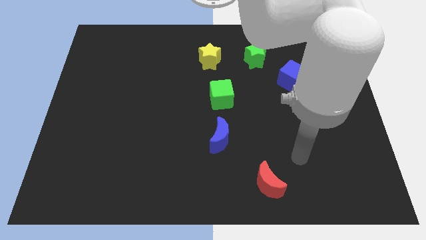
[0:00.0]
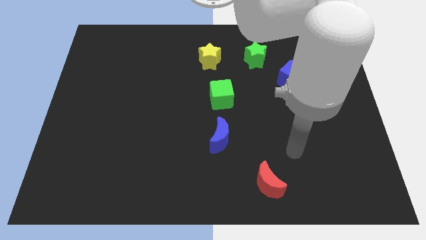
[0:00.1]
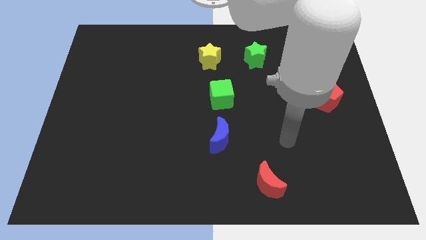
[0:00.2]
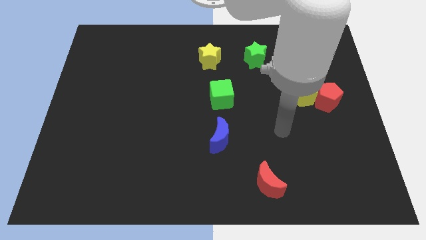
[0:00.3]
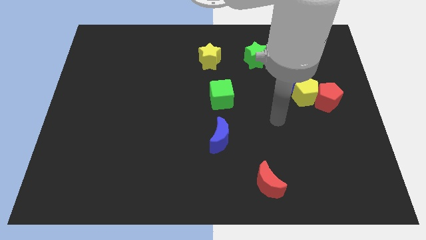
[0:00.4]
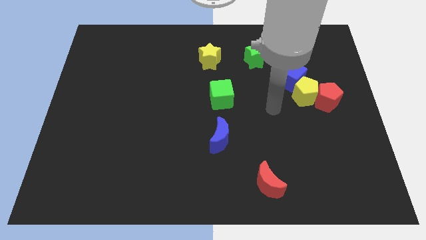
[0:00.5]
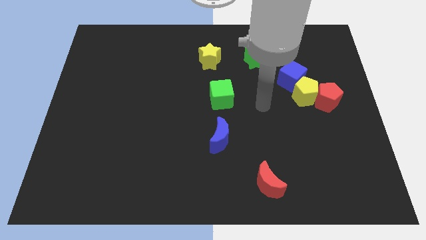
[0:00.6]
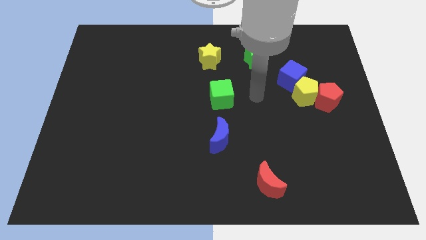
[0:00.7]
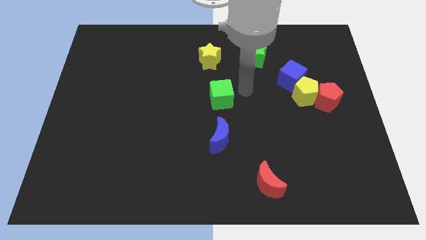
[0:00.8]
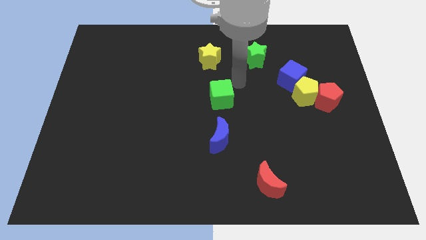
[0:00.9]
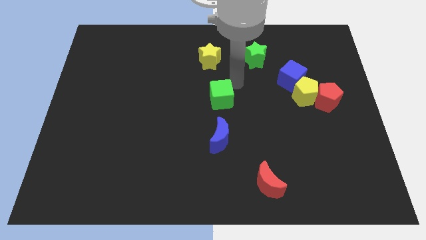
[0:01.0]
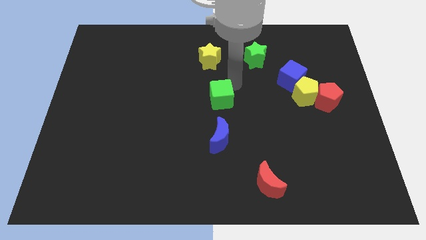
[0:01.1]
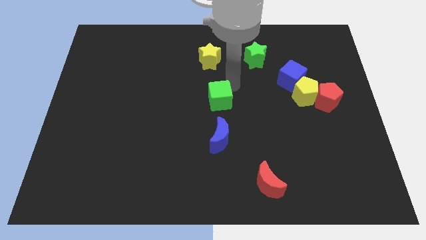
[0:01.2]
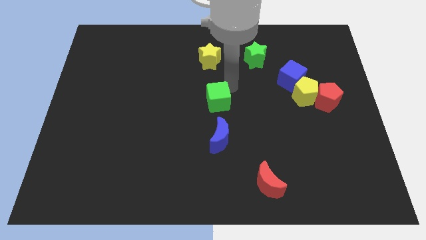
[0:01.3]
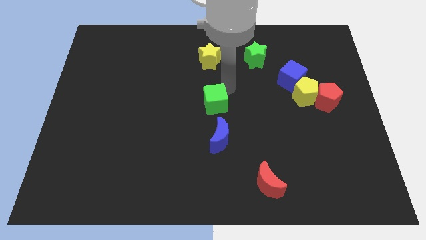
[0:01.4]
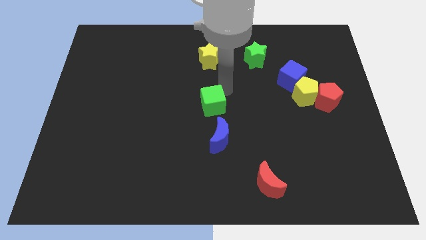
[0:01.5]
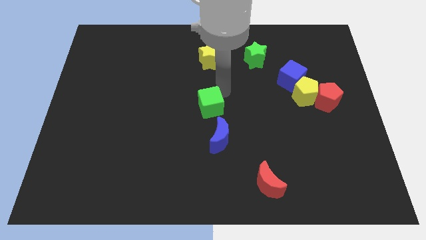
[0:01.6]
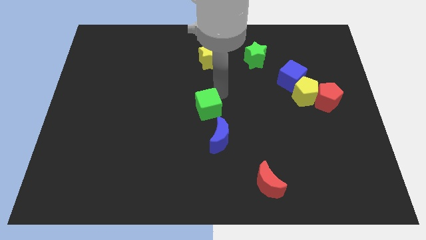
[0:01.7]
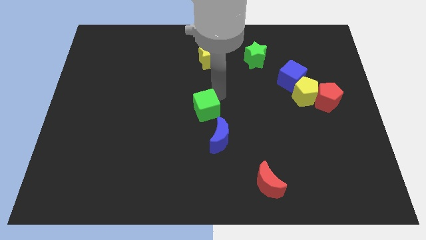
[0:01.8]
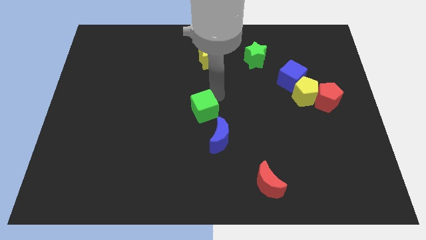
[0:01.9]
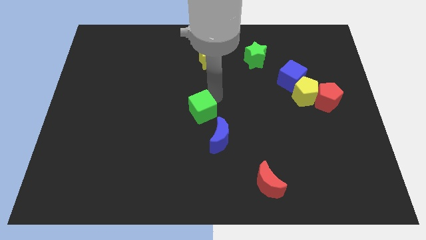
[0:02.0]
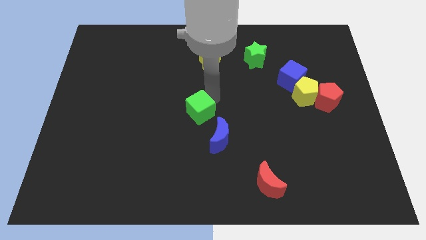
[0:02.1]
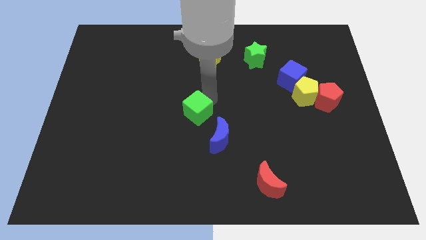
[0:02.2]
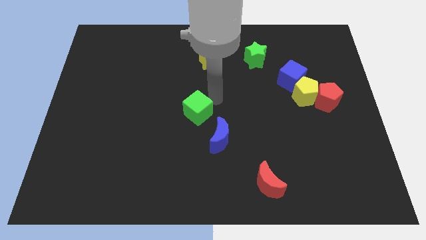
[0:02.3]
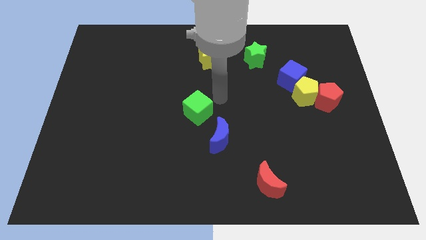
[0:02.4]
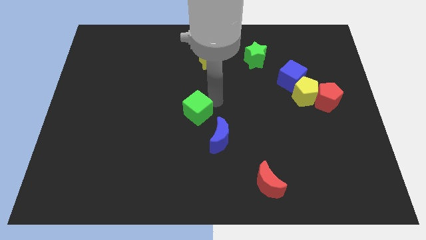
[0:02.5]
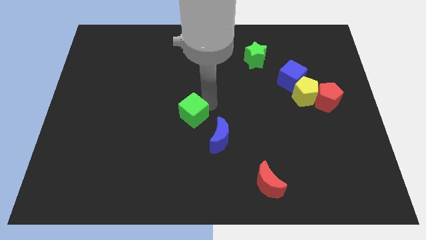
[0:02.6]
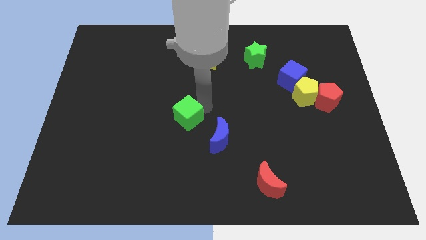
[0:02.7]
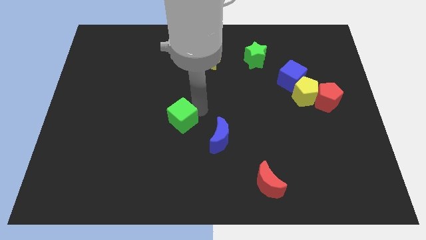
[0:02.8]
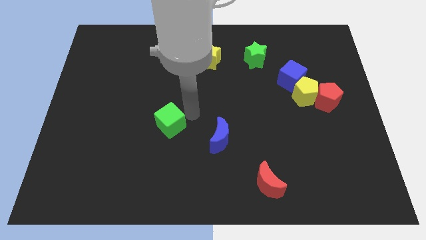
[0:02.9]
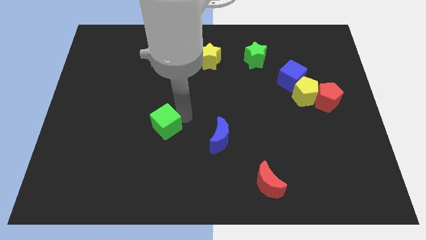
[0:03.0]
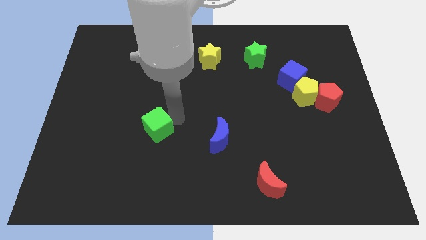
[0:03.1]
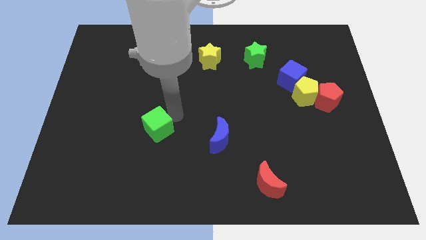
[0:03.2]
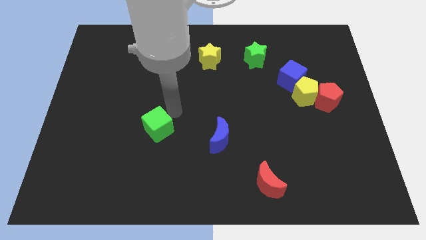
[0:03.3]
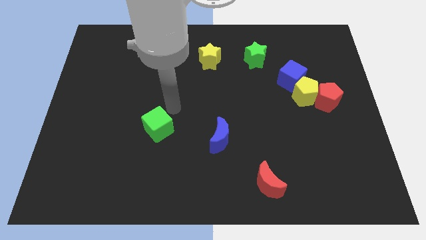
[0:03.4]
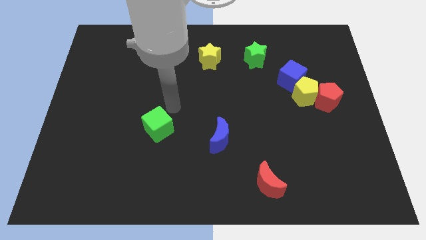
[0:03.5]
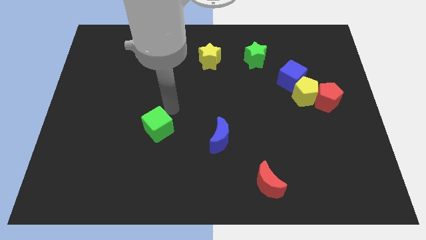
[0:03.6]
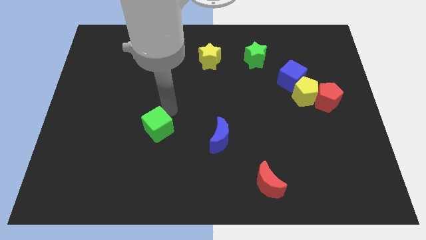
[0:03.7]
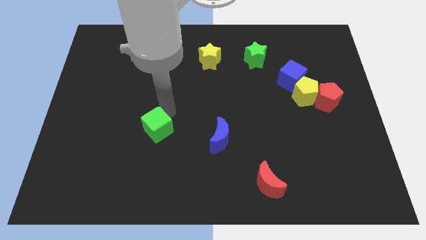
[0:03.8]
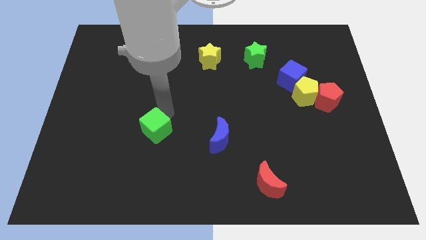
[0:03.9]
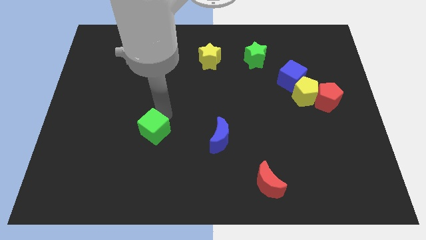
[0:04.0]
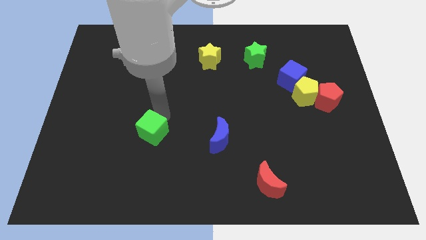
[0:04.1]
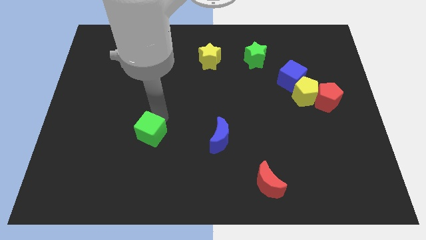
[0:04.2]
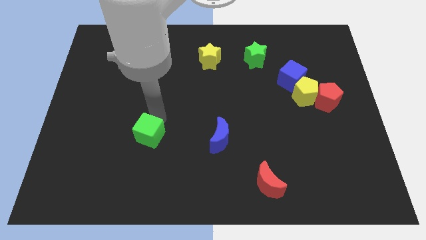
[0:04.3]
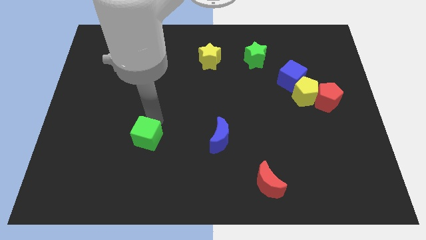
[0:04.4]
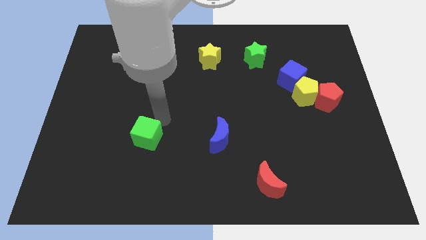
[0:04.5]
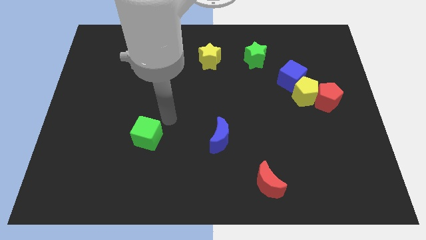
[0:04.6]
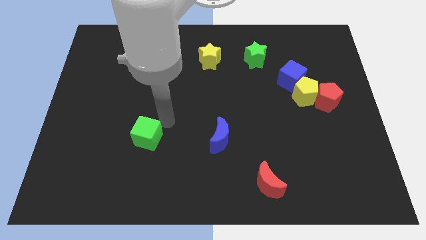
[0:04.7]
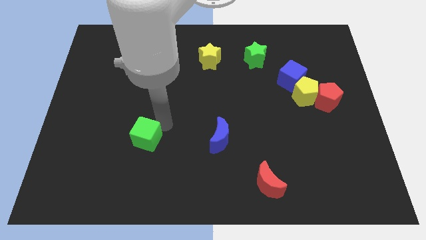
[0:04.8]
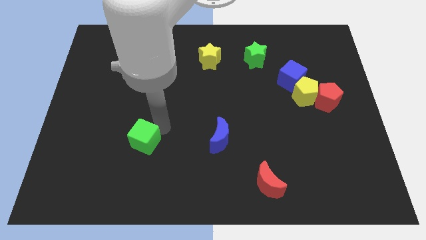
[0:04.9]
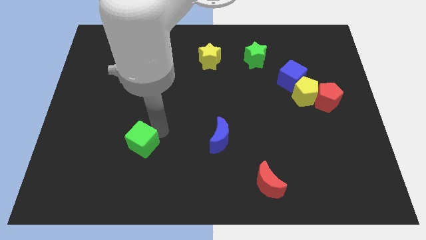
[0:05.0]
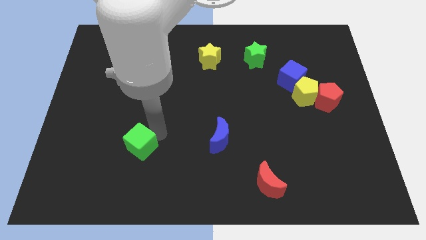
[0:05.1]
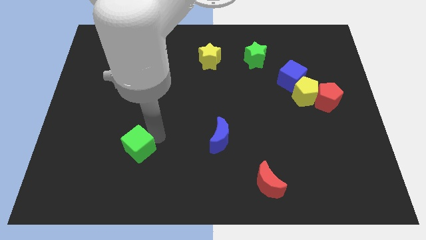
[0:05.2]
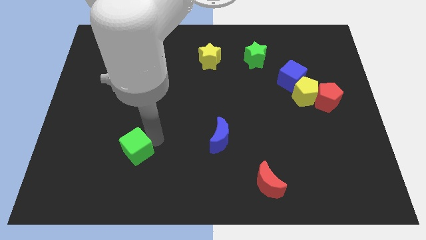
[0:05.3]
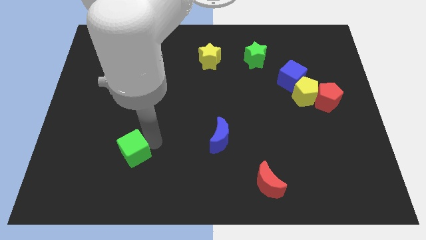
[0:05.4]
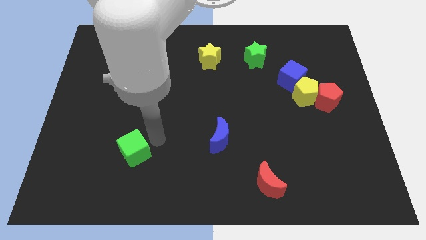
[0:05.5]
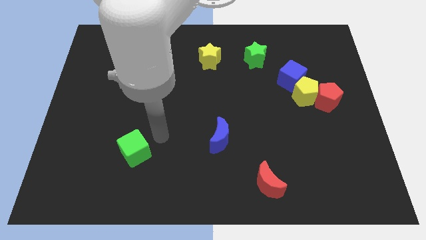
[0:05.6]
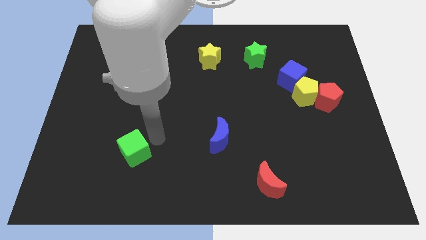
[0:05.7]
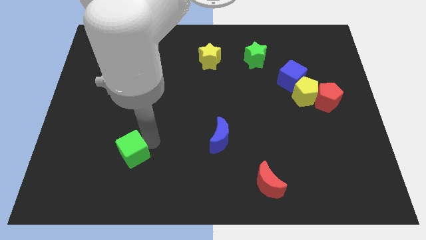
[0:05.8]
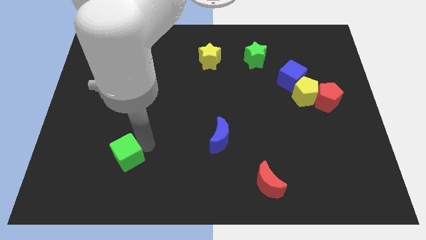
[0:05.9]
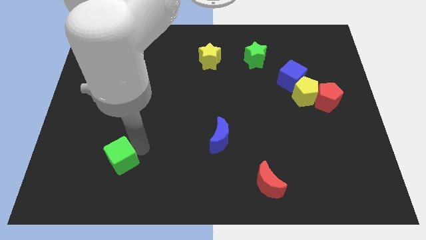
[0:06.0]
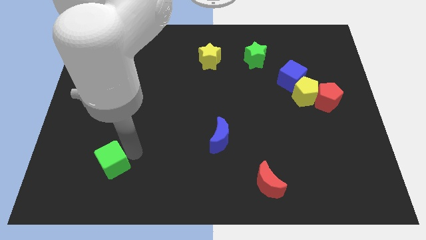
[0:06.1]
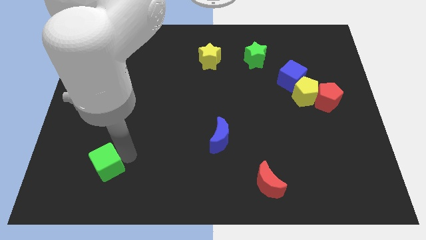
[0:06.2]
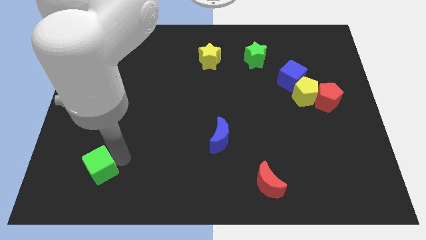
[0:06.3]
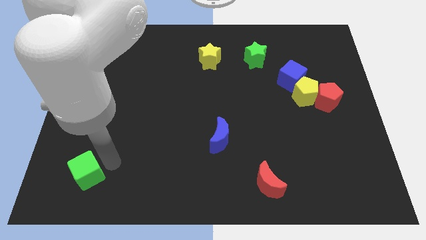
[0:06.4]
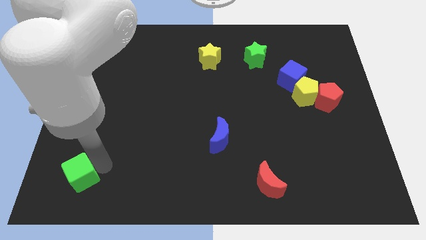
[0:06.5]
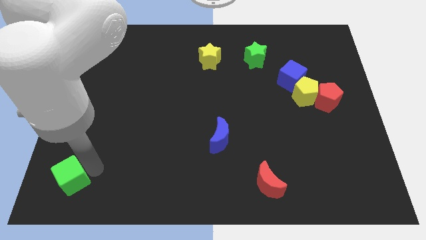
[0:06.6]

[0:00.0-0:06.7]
move the green cube to the bottom left of the board
